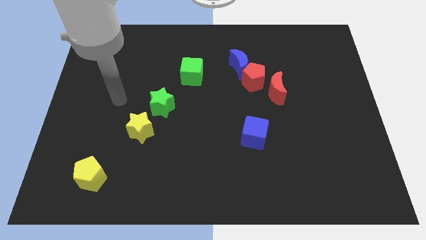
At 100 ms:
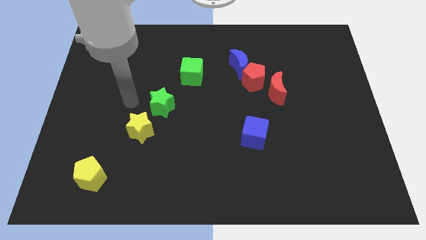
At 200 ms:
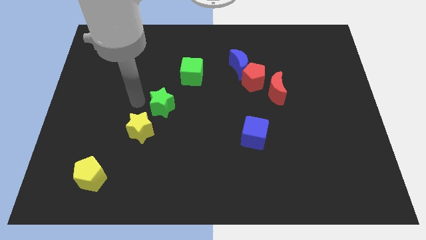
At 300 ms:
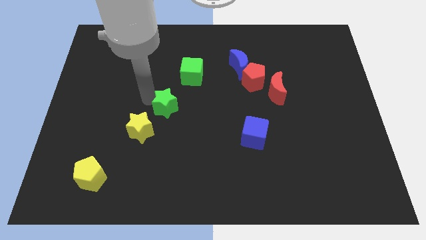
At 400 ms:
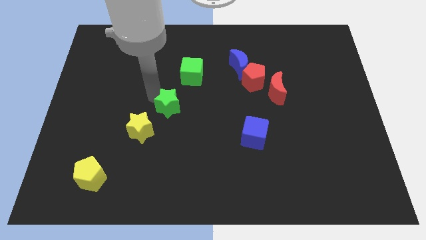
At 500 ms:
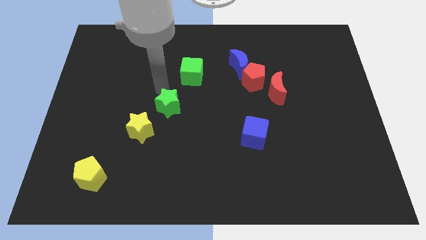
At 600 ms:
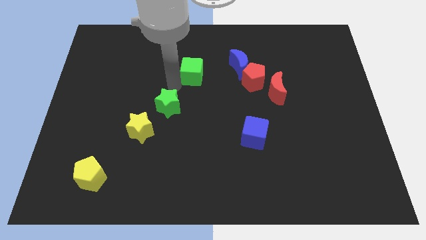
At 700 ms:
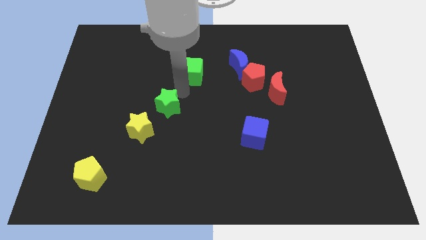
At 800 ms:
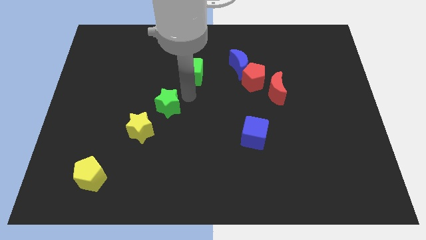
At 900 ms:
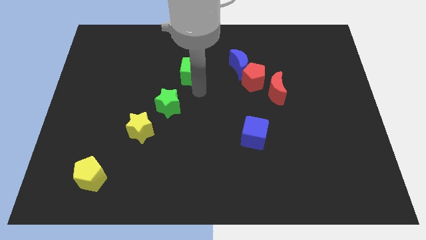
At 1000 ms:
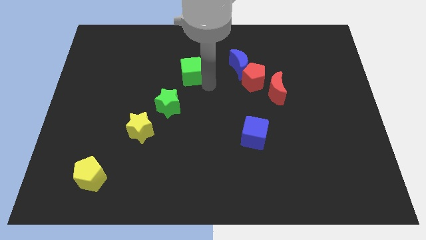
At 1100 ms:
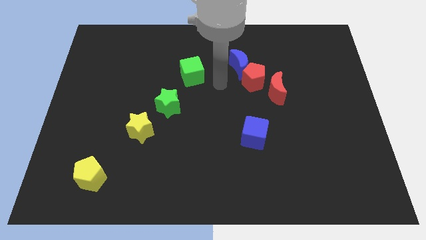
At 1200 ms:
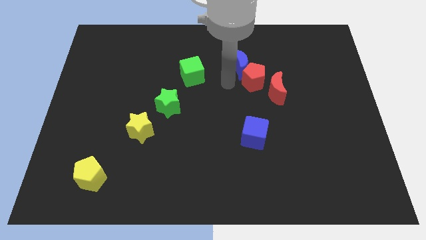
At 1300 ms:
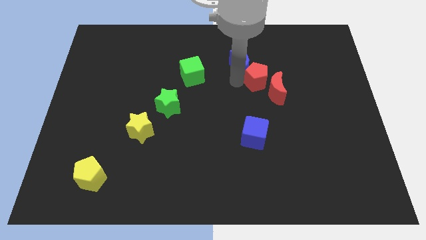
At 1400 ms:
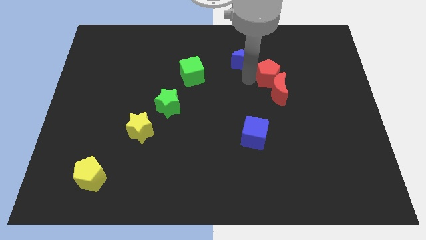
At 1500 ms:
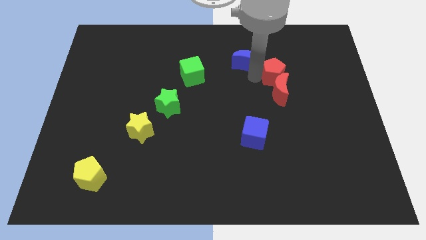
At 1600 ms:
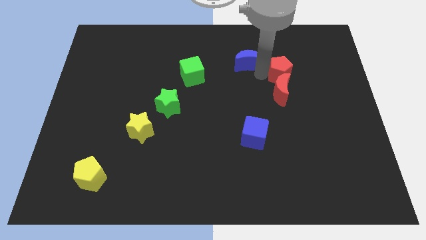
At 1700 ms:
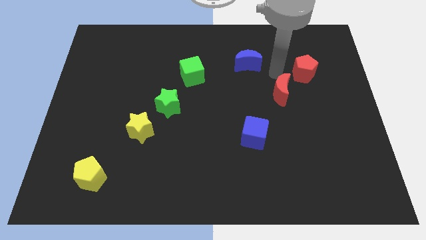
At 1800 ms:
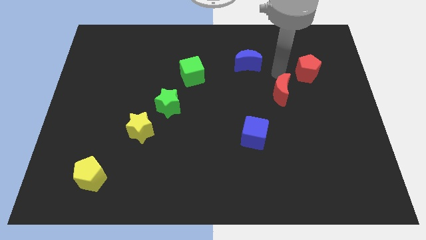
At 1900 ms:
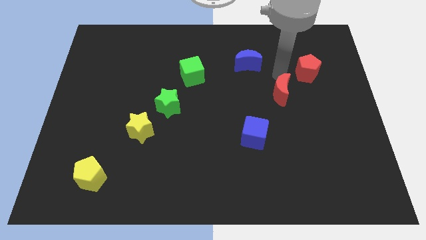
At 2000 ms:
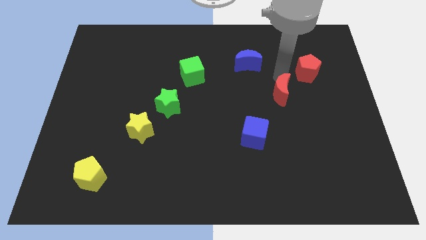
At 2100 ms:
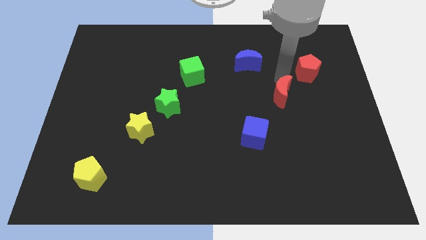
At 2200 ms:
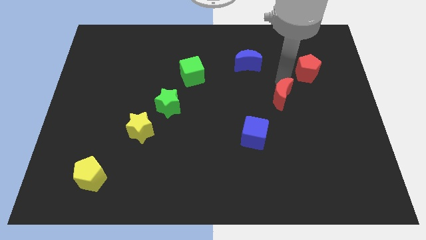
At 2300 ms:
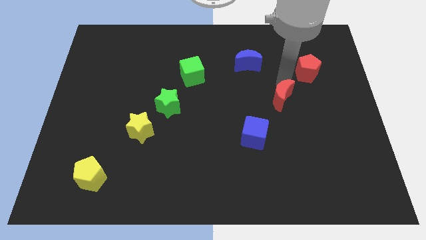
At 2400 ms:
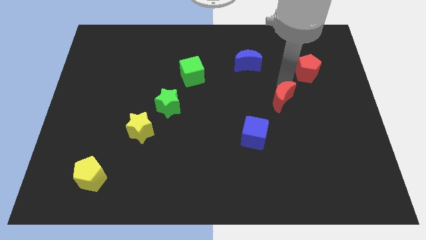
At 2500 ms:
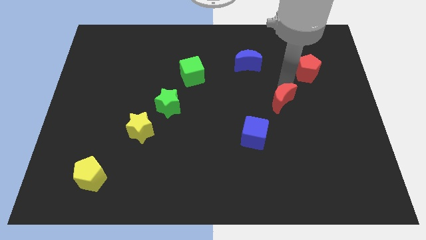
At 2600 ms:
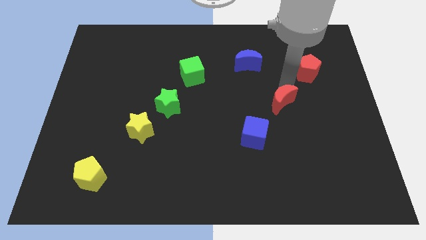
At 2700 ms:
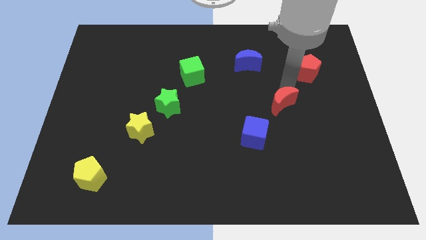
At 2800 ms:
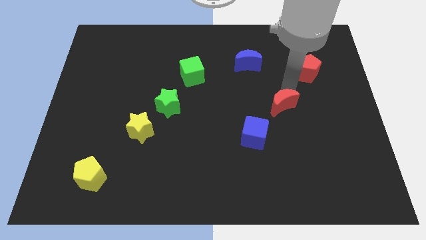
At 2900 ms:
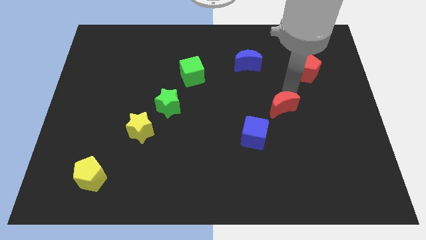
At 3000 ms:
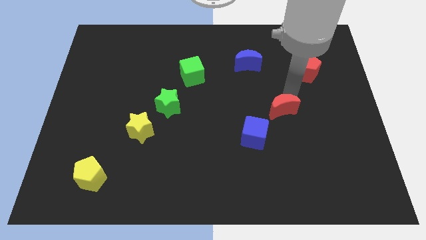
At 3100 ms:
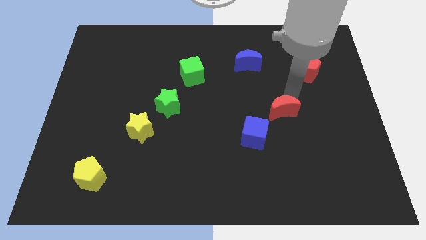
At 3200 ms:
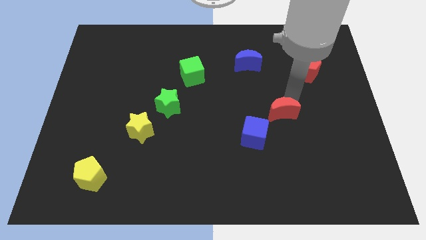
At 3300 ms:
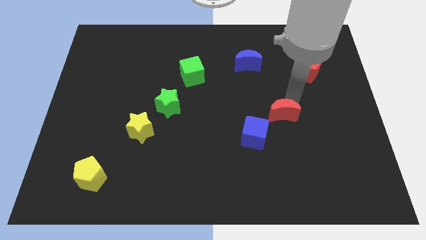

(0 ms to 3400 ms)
slightly push the red moon downwards

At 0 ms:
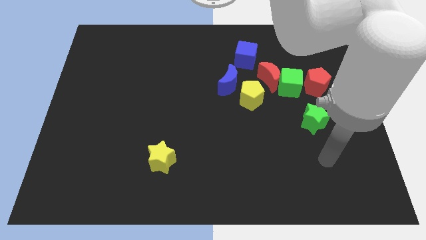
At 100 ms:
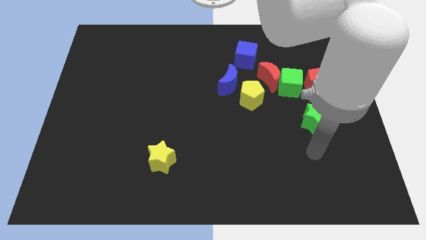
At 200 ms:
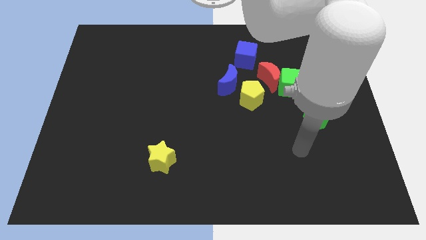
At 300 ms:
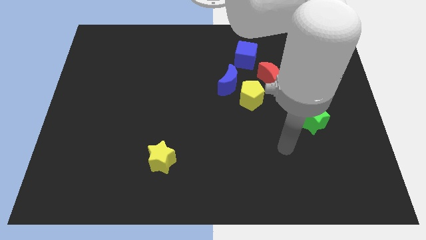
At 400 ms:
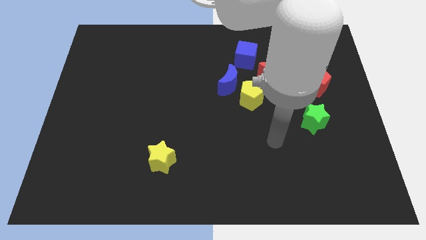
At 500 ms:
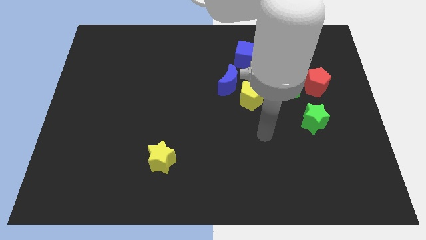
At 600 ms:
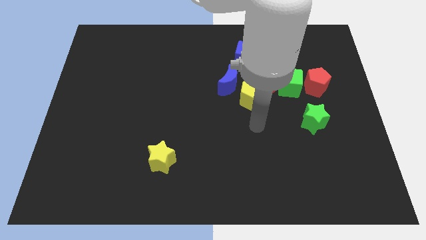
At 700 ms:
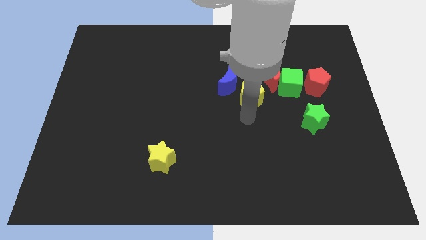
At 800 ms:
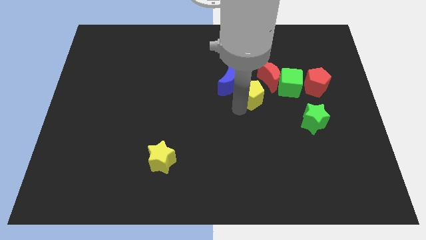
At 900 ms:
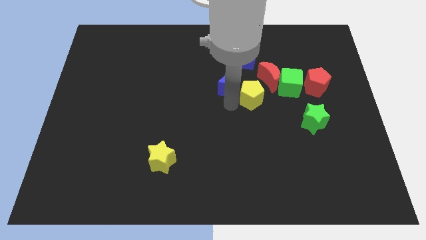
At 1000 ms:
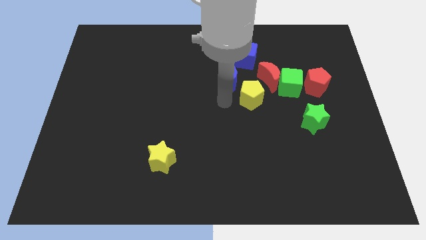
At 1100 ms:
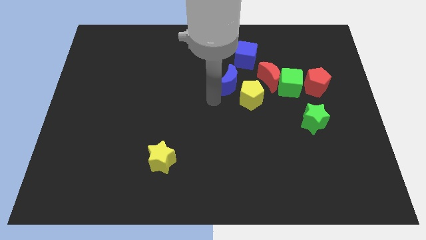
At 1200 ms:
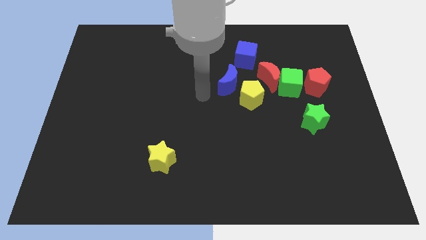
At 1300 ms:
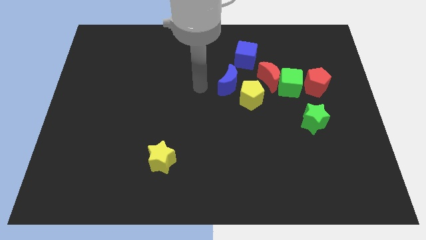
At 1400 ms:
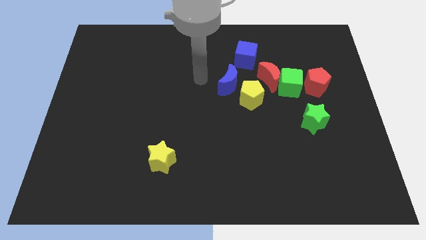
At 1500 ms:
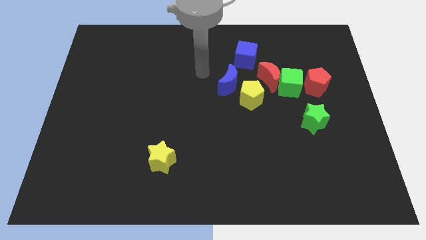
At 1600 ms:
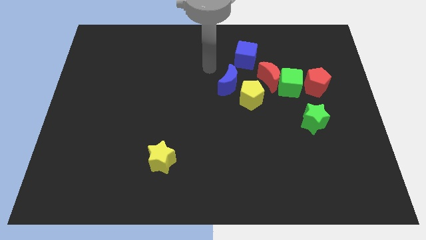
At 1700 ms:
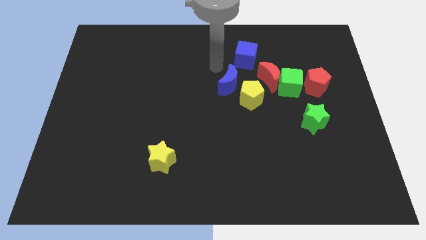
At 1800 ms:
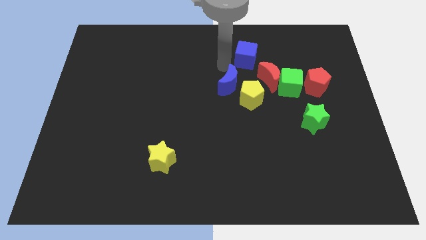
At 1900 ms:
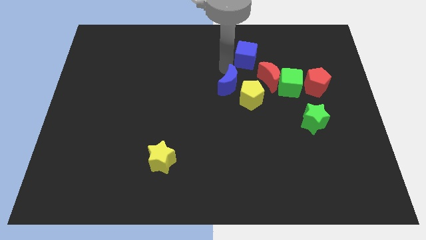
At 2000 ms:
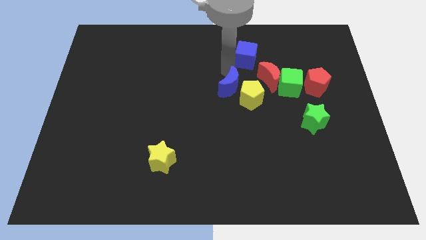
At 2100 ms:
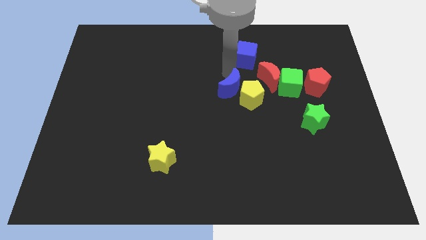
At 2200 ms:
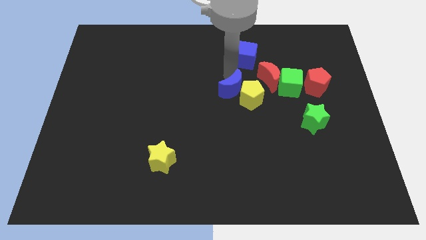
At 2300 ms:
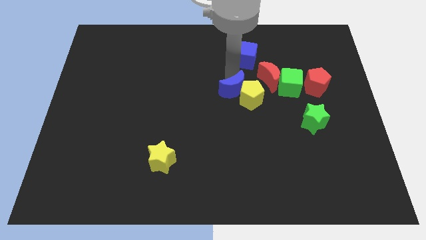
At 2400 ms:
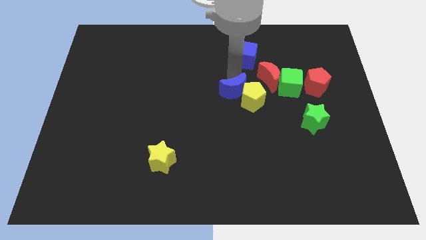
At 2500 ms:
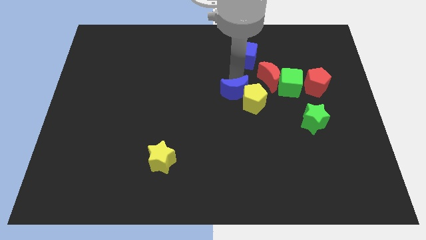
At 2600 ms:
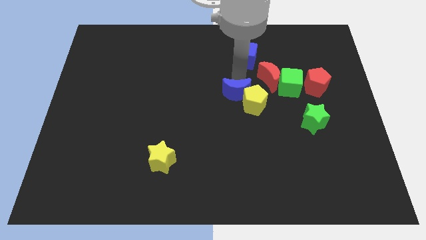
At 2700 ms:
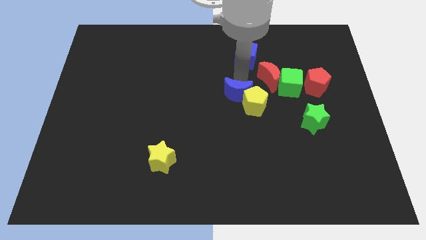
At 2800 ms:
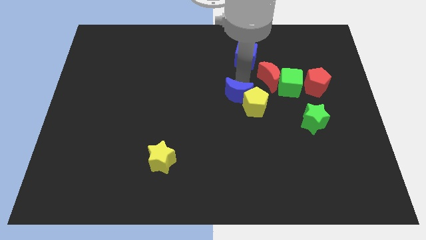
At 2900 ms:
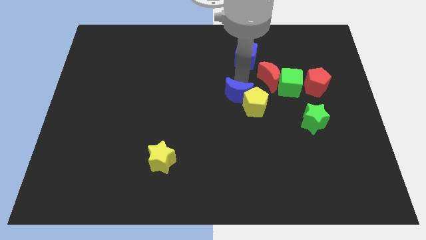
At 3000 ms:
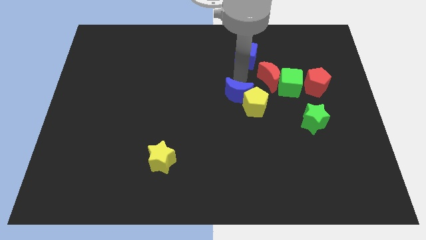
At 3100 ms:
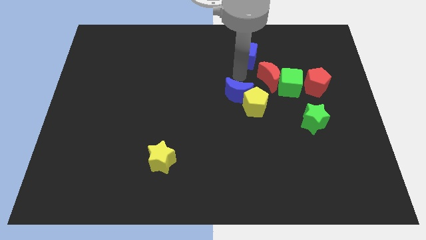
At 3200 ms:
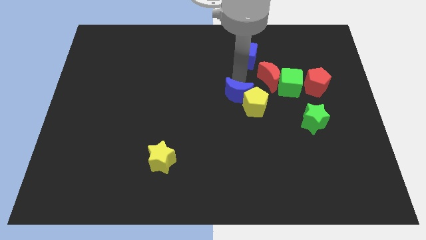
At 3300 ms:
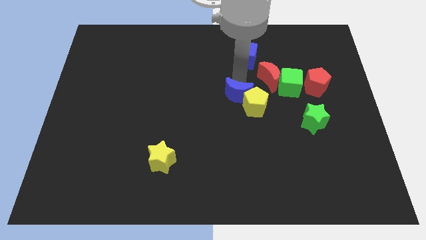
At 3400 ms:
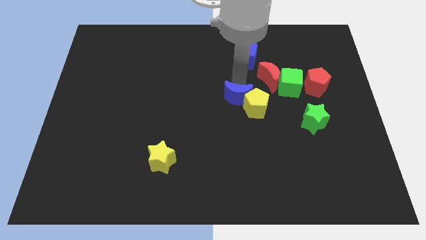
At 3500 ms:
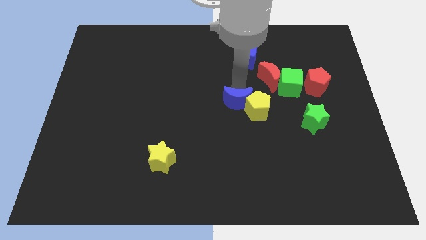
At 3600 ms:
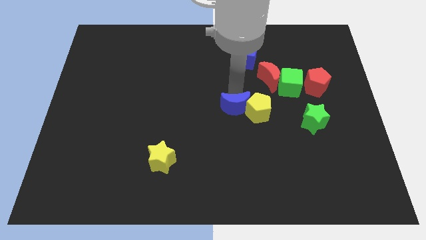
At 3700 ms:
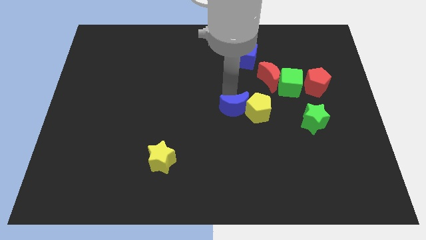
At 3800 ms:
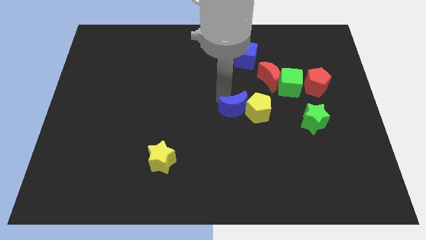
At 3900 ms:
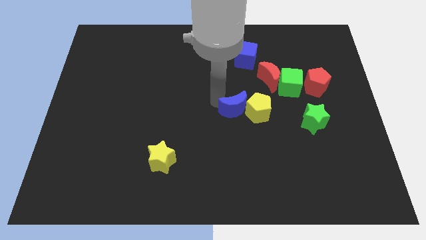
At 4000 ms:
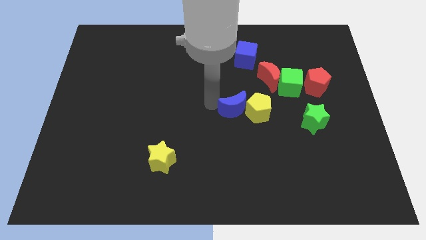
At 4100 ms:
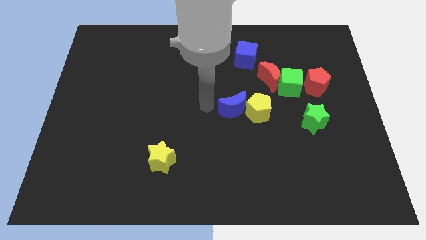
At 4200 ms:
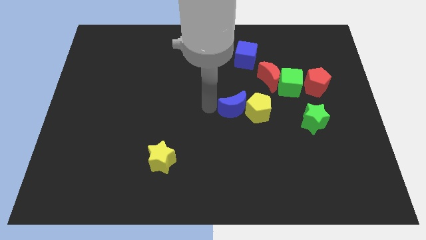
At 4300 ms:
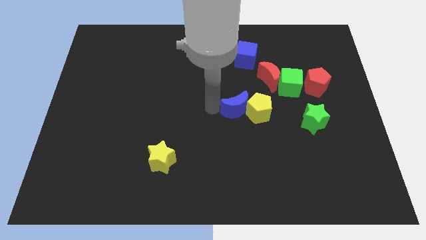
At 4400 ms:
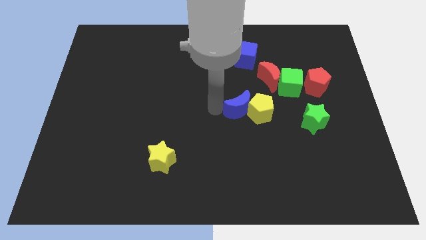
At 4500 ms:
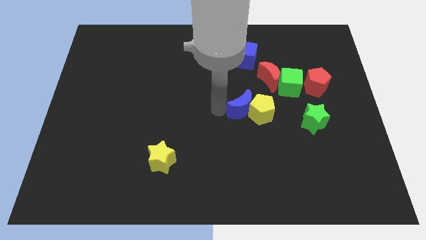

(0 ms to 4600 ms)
slightly move the blue moon downwards and then to the right

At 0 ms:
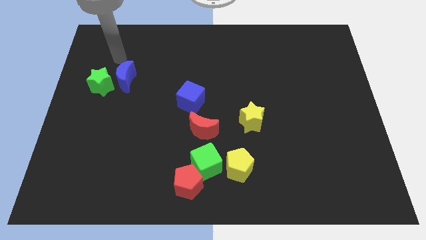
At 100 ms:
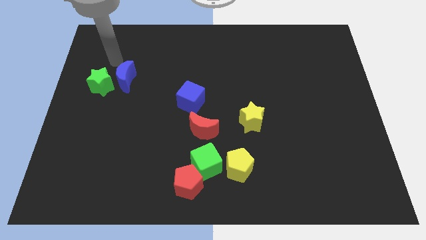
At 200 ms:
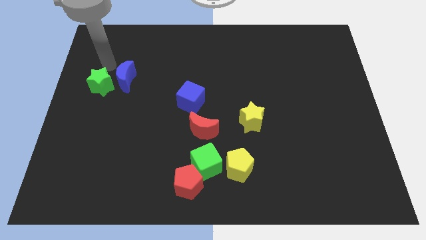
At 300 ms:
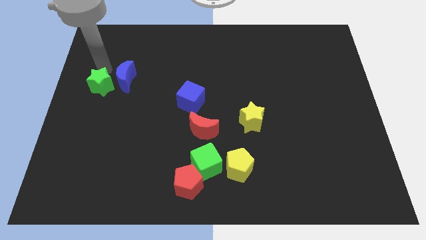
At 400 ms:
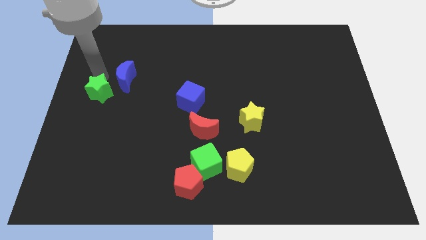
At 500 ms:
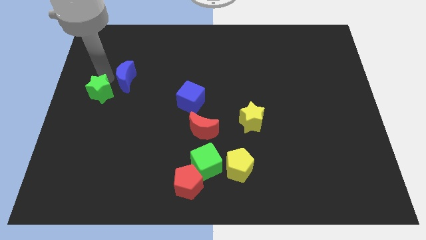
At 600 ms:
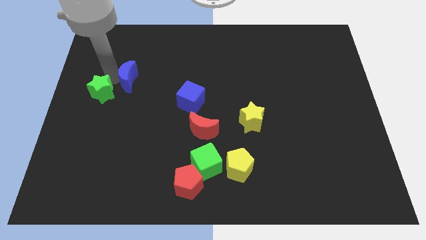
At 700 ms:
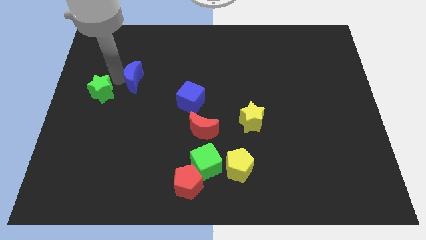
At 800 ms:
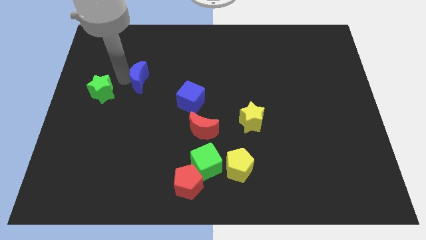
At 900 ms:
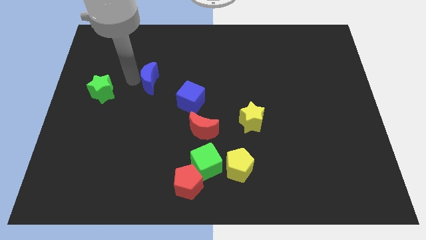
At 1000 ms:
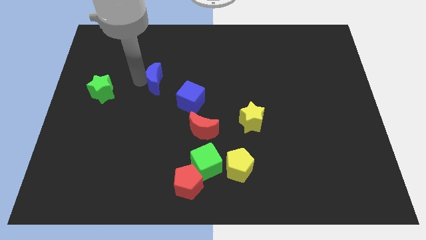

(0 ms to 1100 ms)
slide the blue moon to the right a bit
